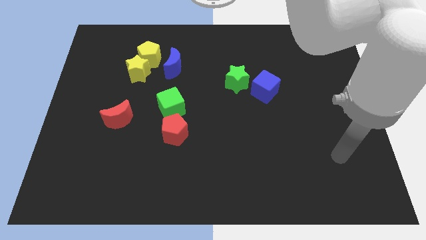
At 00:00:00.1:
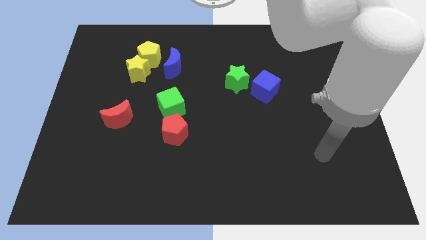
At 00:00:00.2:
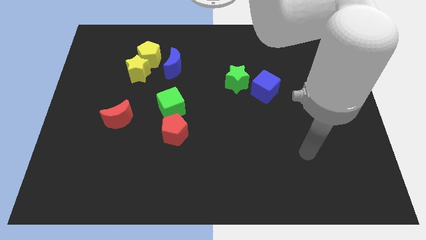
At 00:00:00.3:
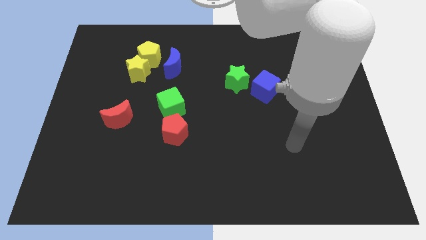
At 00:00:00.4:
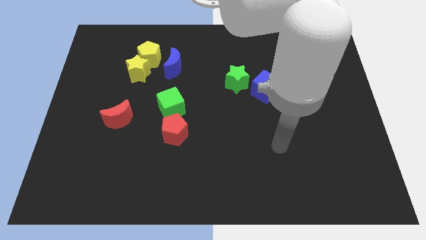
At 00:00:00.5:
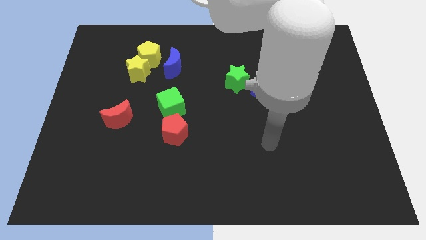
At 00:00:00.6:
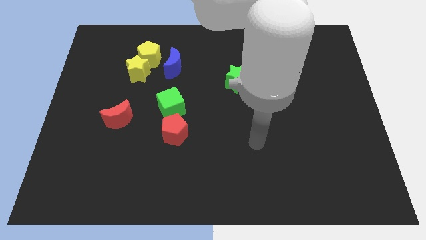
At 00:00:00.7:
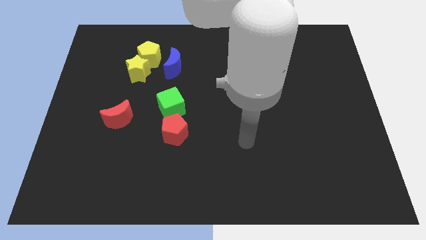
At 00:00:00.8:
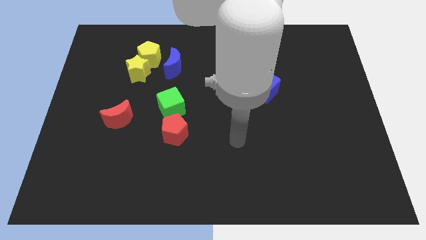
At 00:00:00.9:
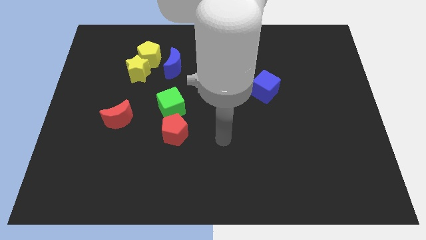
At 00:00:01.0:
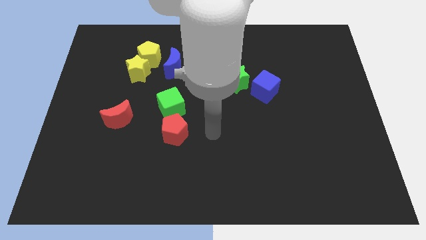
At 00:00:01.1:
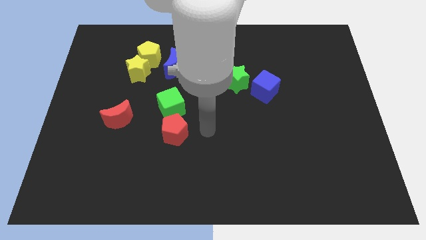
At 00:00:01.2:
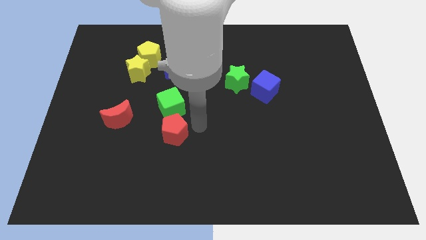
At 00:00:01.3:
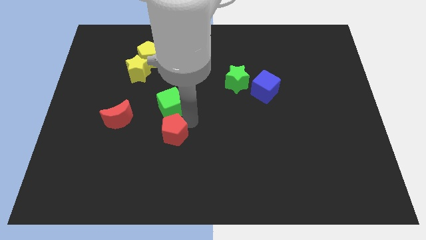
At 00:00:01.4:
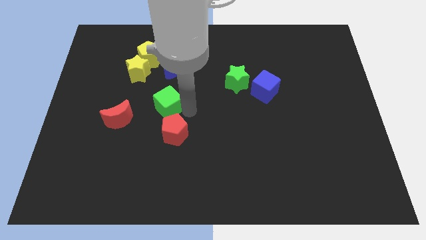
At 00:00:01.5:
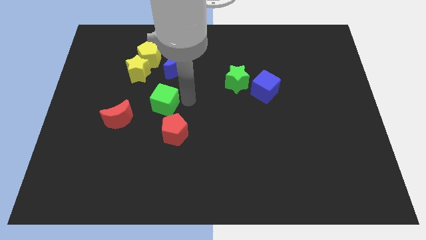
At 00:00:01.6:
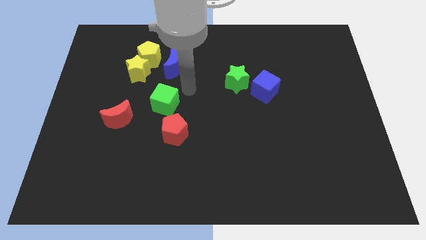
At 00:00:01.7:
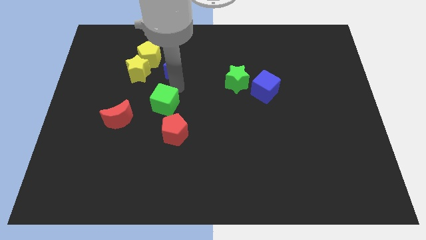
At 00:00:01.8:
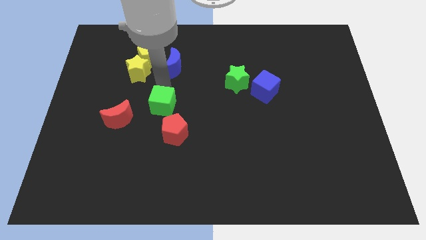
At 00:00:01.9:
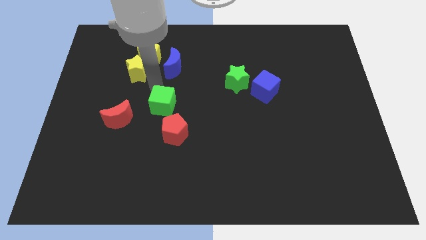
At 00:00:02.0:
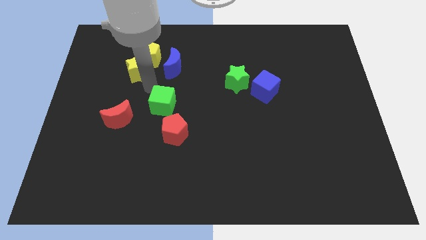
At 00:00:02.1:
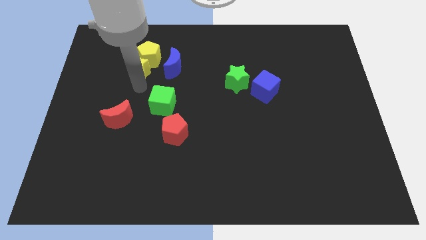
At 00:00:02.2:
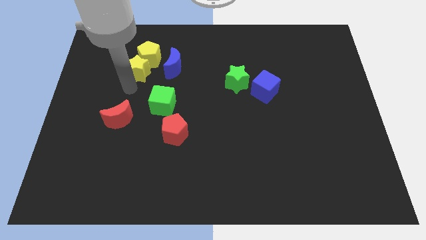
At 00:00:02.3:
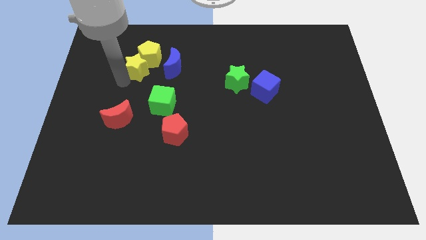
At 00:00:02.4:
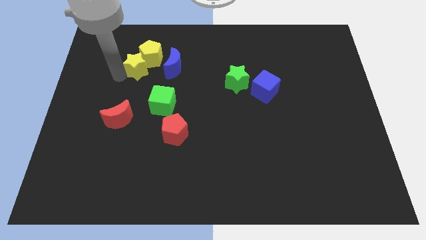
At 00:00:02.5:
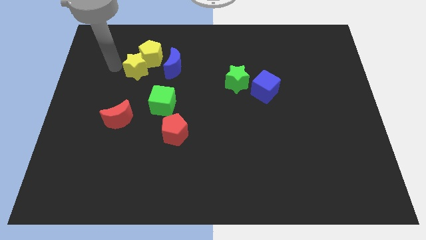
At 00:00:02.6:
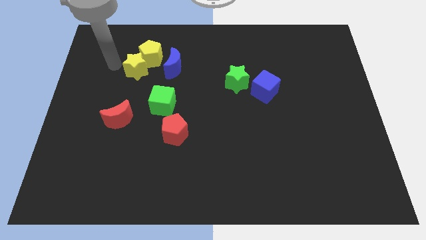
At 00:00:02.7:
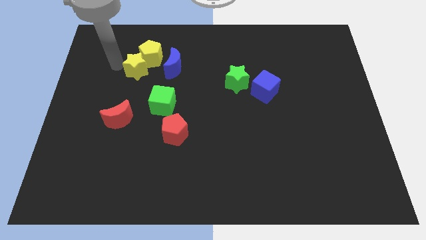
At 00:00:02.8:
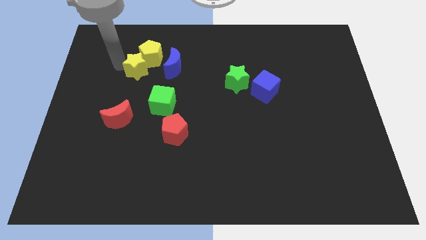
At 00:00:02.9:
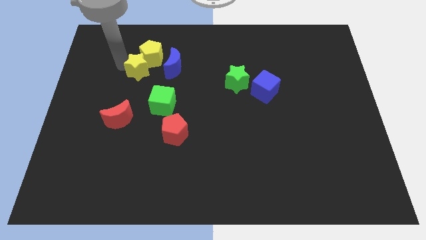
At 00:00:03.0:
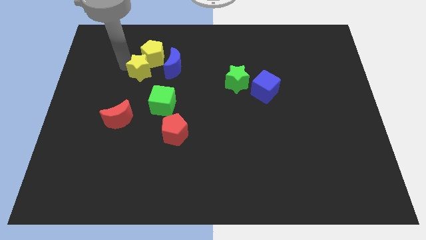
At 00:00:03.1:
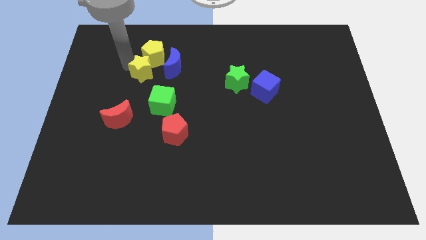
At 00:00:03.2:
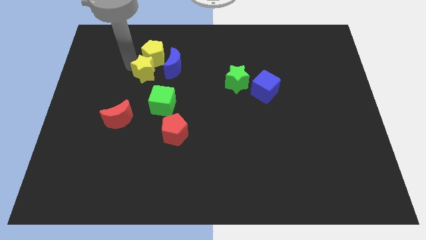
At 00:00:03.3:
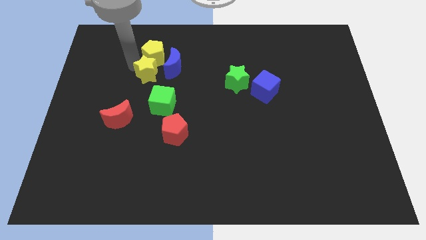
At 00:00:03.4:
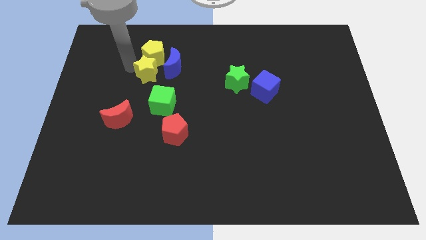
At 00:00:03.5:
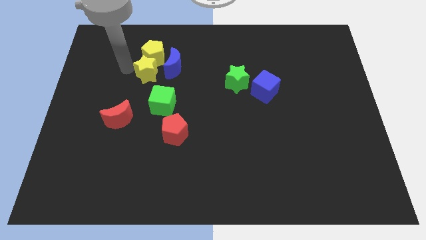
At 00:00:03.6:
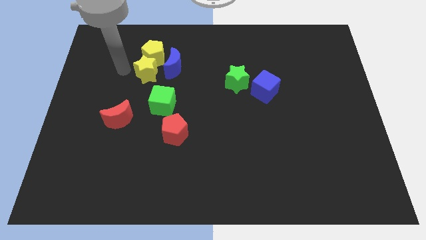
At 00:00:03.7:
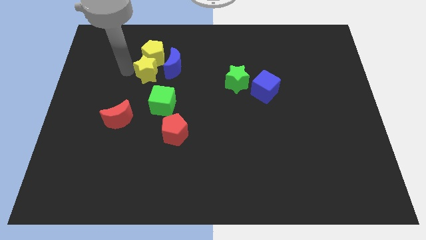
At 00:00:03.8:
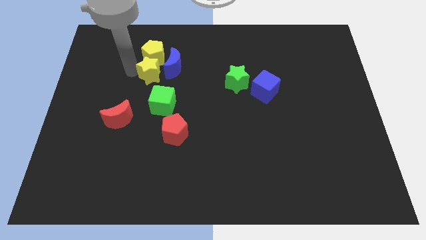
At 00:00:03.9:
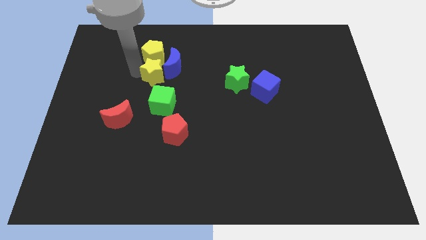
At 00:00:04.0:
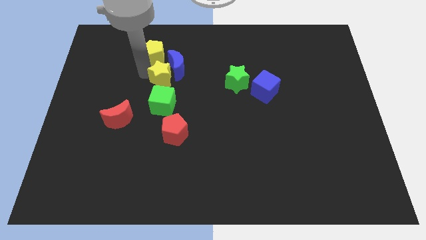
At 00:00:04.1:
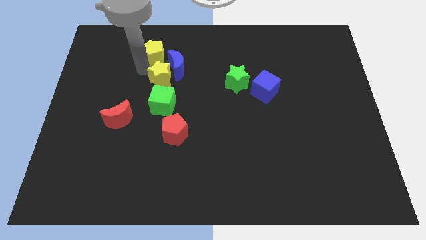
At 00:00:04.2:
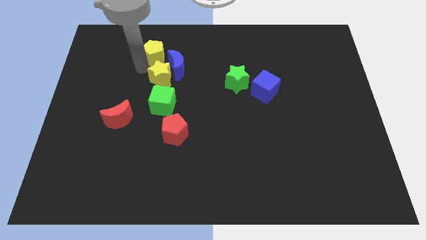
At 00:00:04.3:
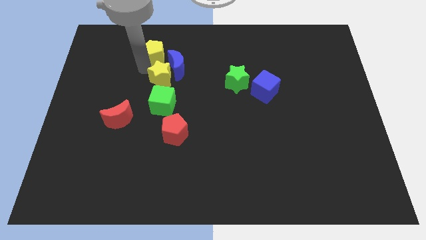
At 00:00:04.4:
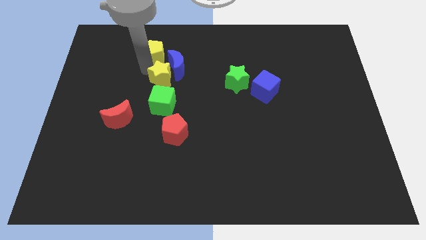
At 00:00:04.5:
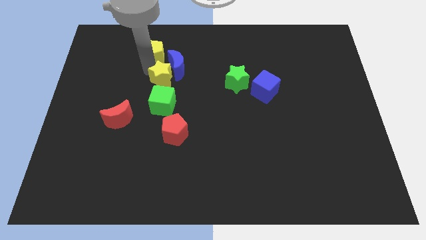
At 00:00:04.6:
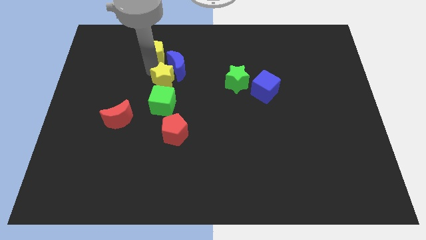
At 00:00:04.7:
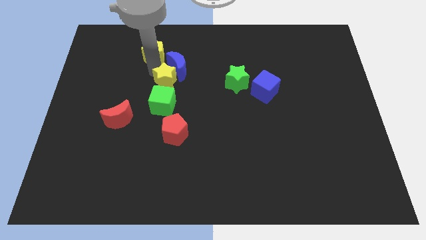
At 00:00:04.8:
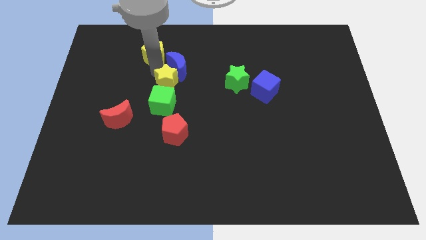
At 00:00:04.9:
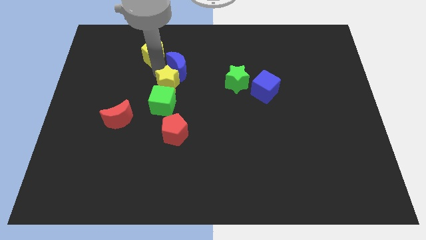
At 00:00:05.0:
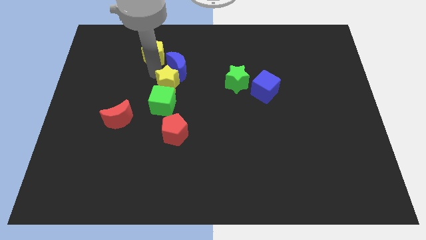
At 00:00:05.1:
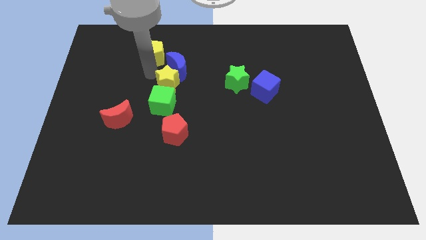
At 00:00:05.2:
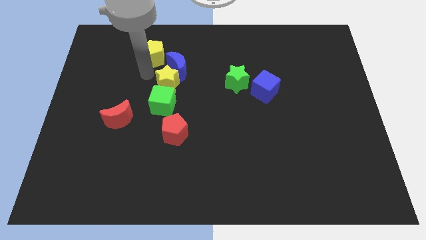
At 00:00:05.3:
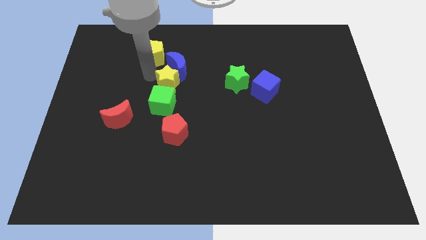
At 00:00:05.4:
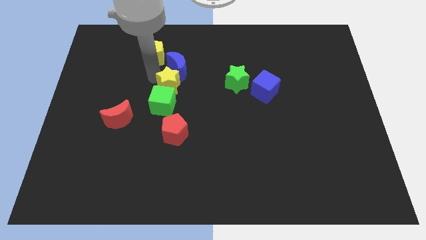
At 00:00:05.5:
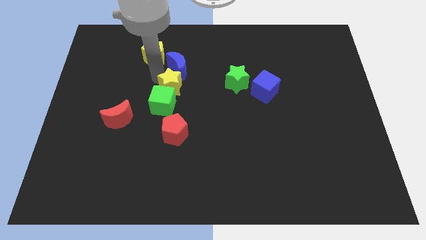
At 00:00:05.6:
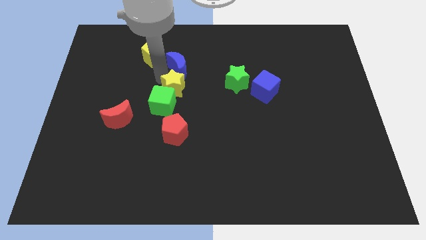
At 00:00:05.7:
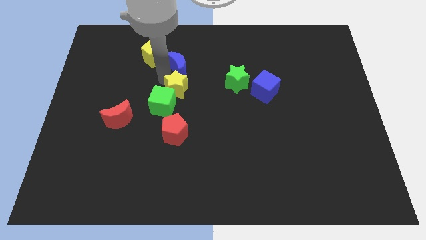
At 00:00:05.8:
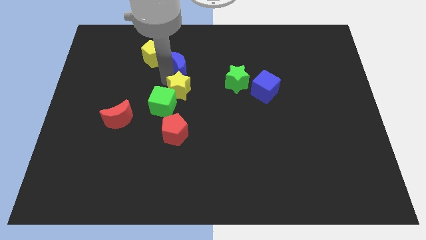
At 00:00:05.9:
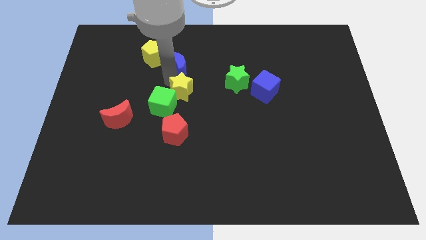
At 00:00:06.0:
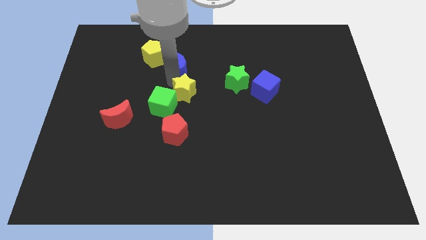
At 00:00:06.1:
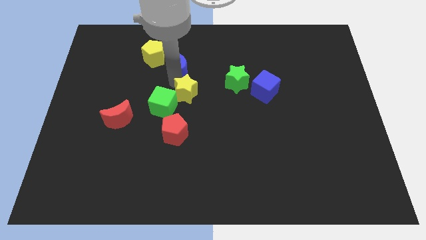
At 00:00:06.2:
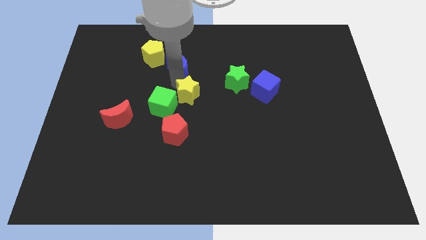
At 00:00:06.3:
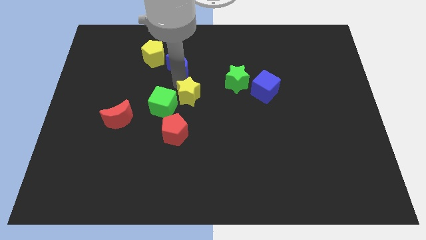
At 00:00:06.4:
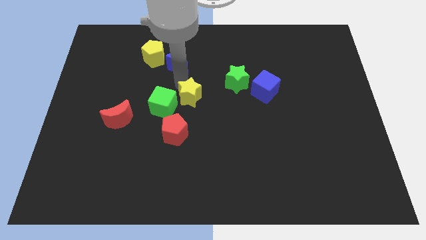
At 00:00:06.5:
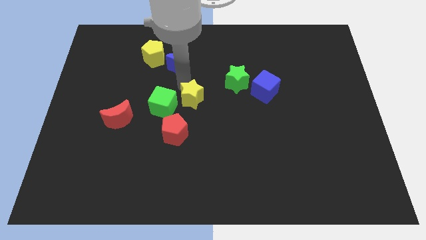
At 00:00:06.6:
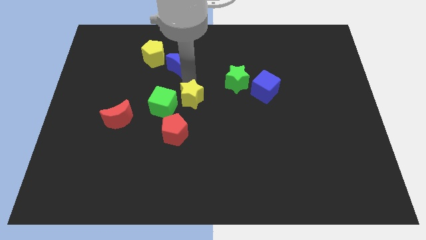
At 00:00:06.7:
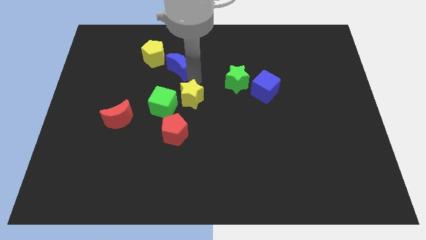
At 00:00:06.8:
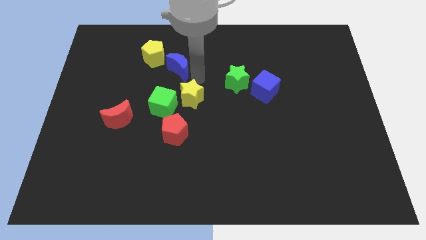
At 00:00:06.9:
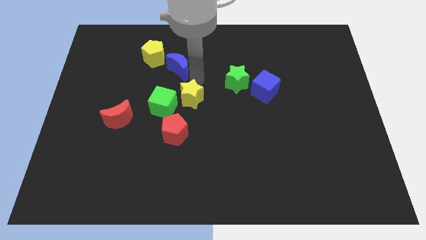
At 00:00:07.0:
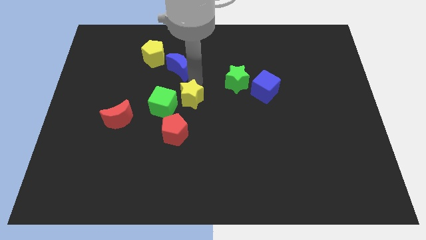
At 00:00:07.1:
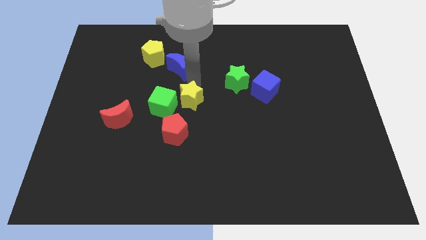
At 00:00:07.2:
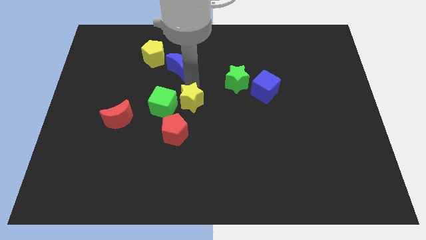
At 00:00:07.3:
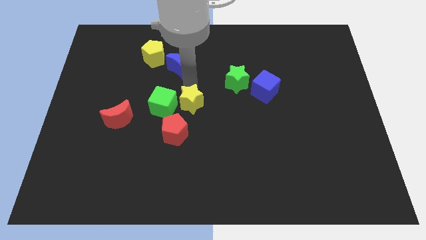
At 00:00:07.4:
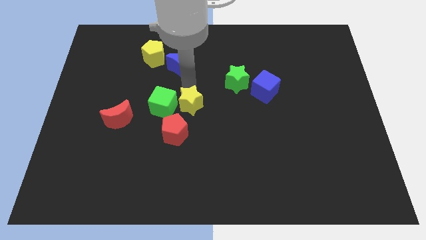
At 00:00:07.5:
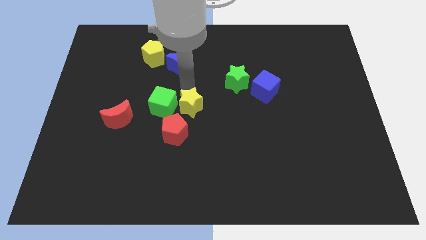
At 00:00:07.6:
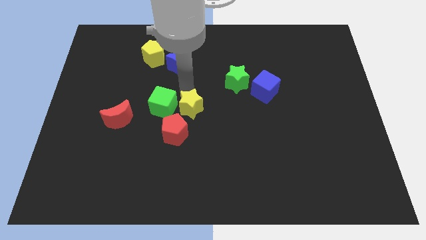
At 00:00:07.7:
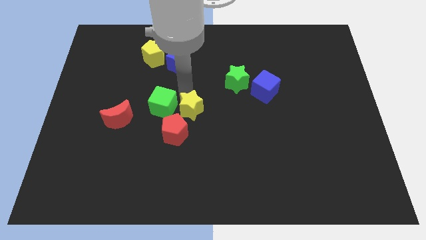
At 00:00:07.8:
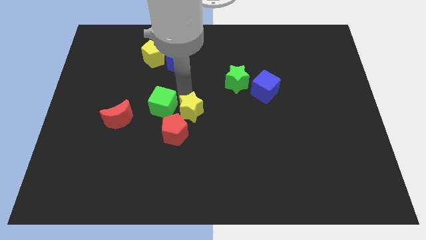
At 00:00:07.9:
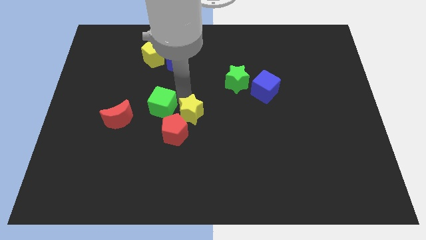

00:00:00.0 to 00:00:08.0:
push the yellow star right of the red moon
